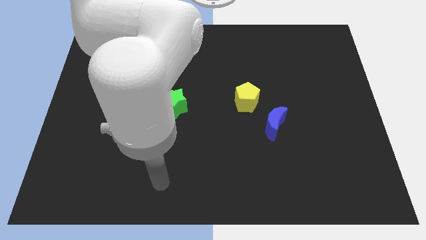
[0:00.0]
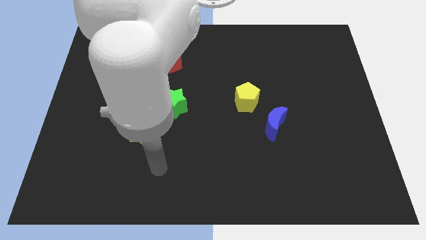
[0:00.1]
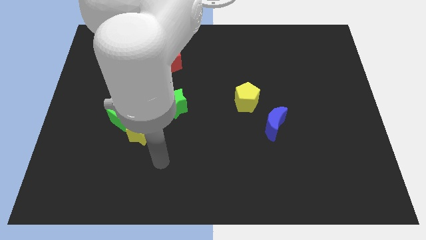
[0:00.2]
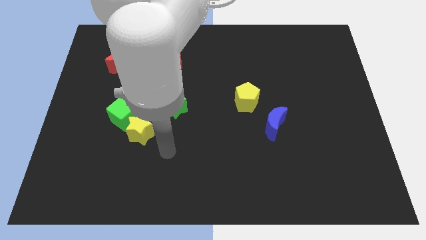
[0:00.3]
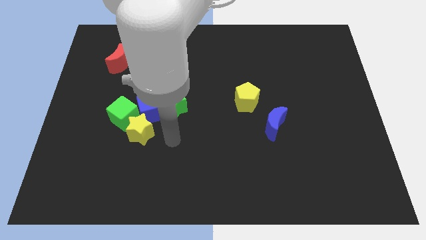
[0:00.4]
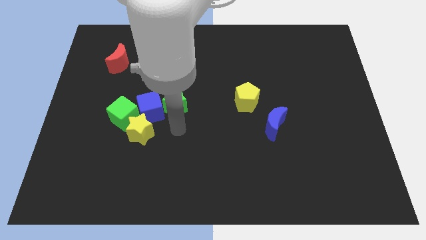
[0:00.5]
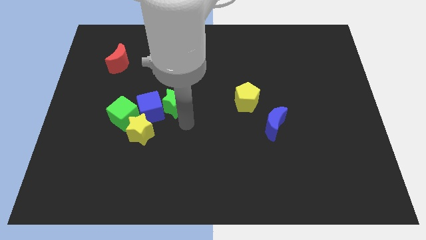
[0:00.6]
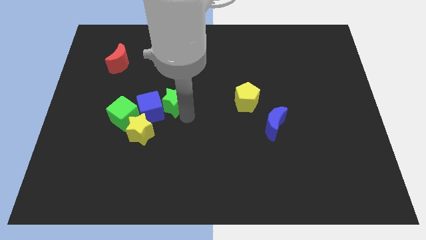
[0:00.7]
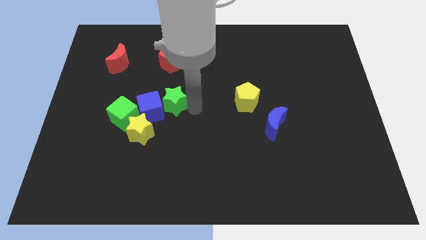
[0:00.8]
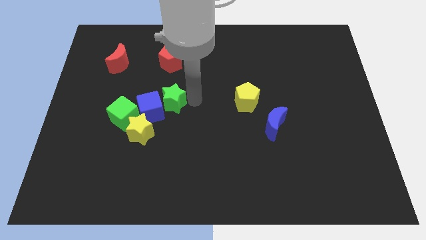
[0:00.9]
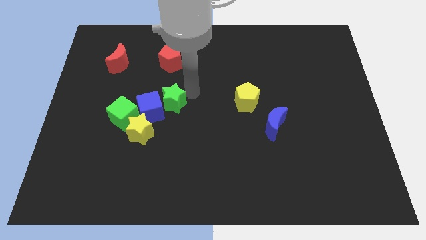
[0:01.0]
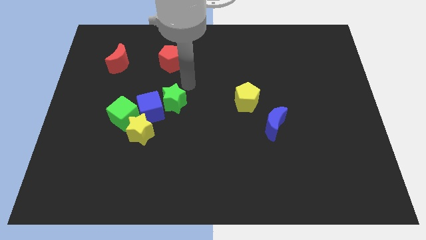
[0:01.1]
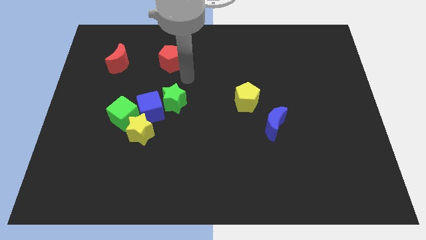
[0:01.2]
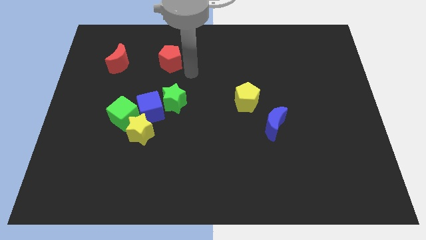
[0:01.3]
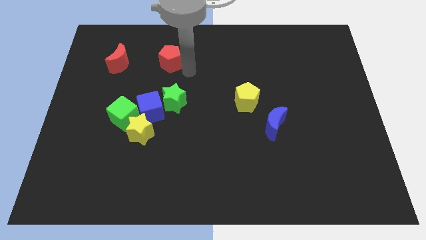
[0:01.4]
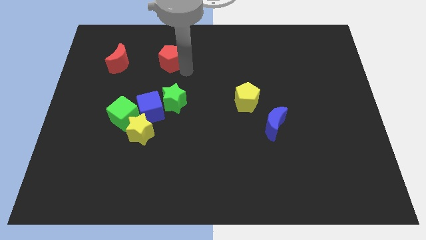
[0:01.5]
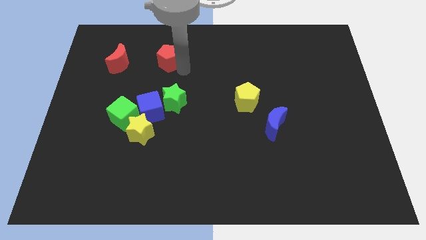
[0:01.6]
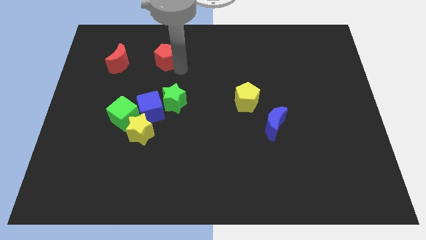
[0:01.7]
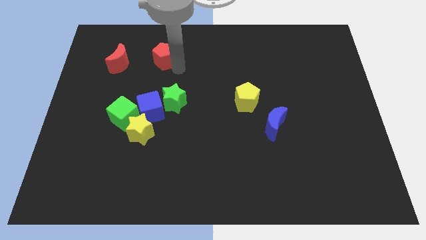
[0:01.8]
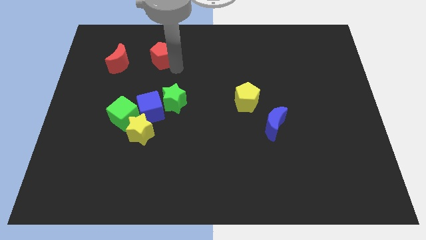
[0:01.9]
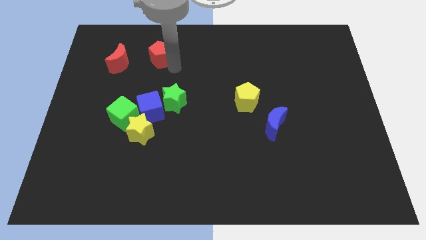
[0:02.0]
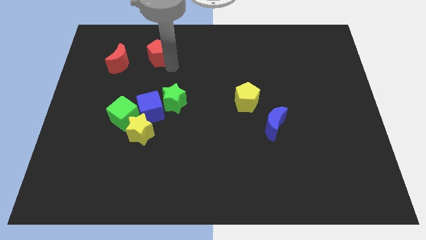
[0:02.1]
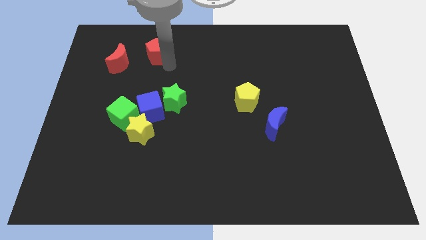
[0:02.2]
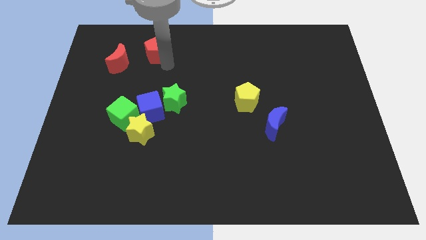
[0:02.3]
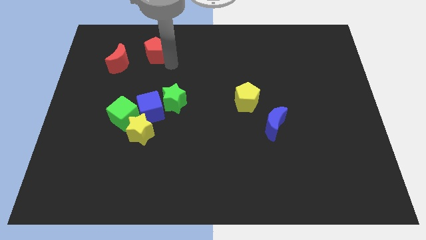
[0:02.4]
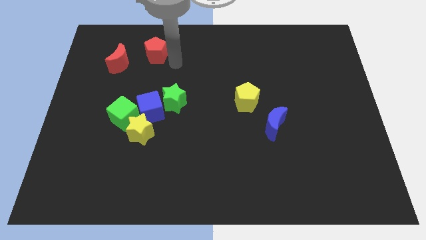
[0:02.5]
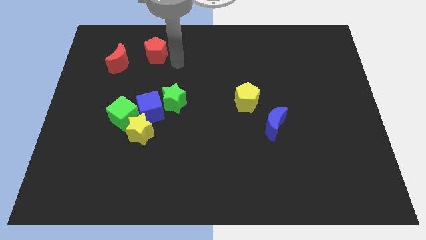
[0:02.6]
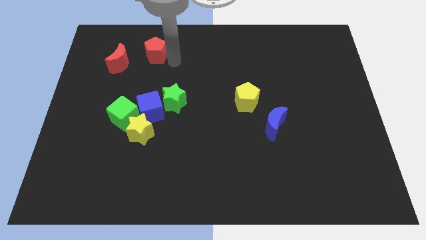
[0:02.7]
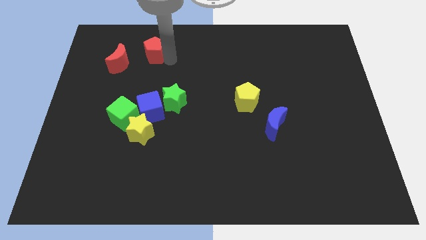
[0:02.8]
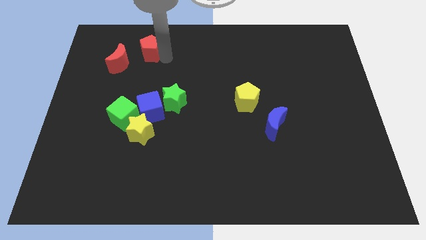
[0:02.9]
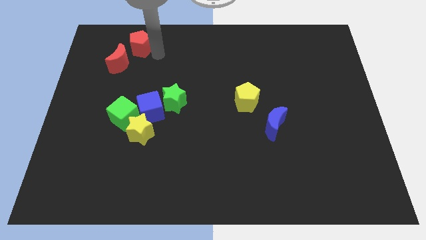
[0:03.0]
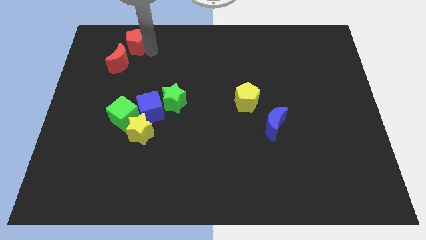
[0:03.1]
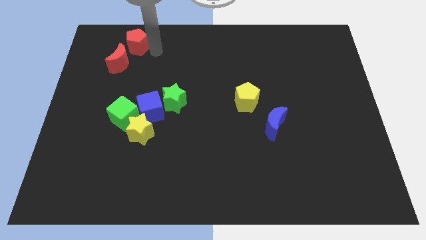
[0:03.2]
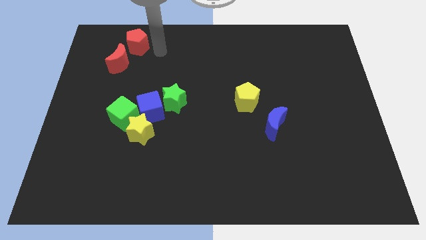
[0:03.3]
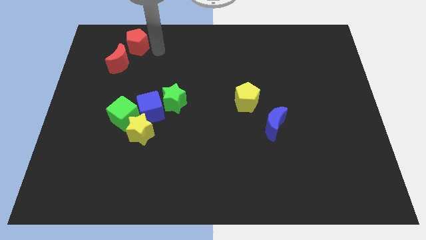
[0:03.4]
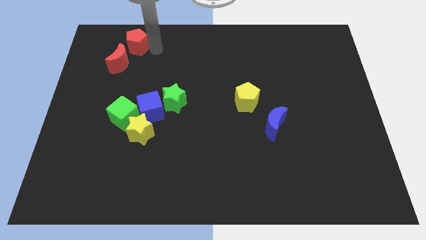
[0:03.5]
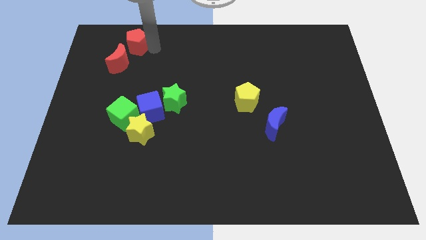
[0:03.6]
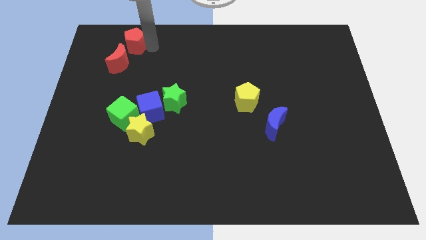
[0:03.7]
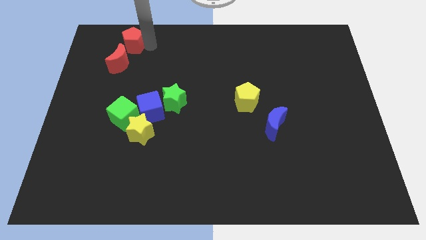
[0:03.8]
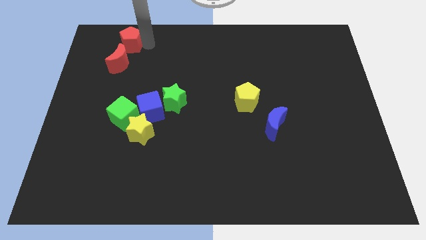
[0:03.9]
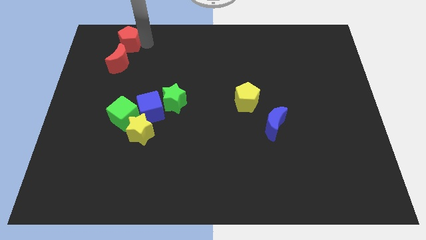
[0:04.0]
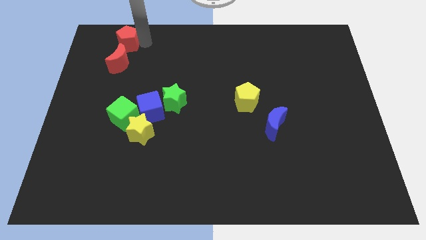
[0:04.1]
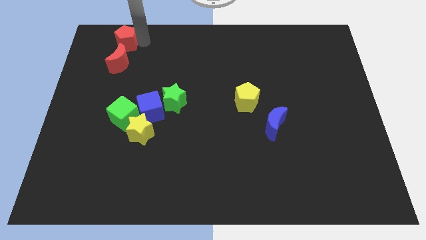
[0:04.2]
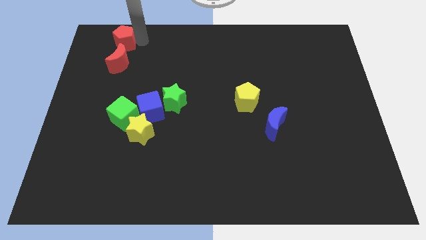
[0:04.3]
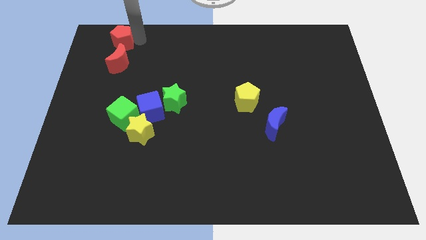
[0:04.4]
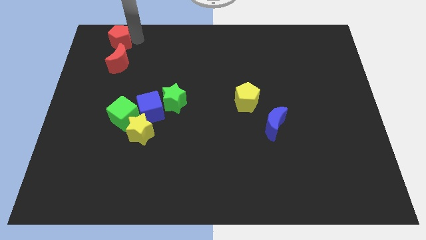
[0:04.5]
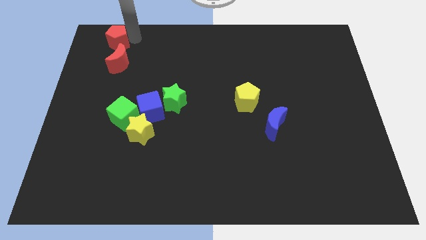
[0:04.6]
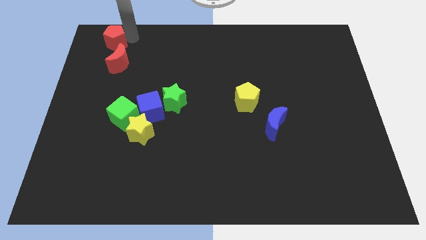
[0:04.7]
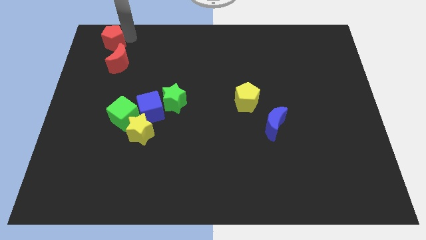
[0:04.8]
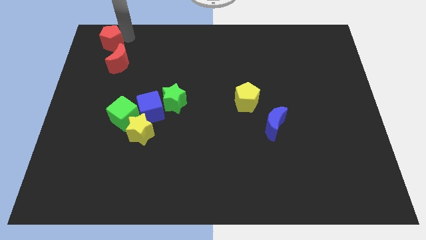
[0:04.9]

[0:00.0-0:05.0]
push the red pentagon to the top left corner
